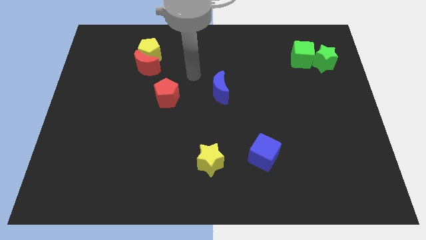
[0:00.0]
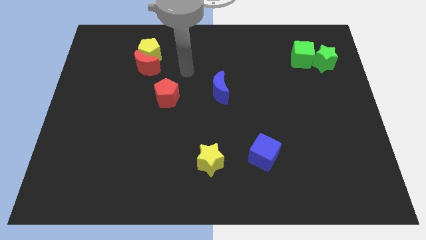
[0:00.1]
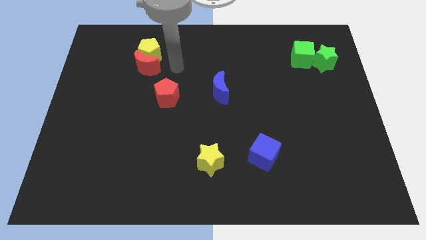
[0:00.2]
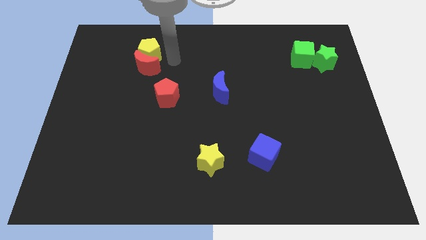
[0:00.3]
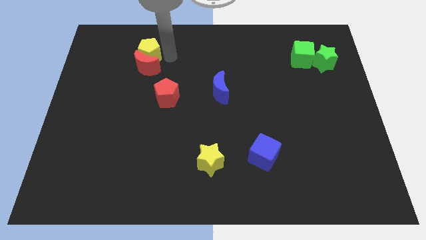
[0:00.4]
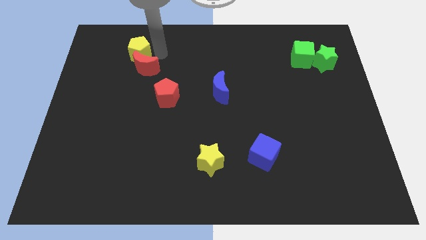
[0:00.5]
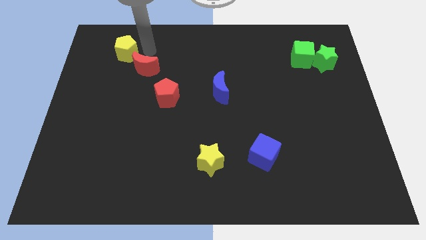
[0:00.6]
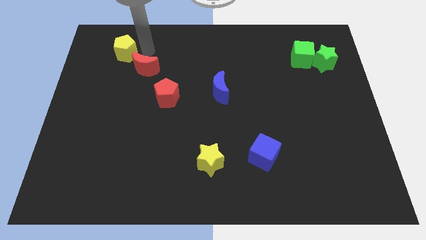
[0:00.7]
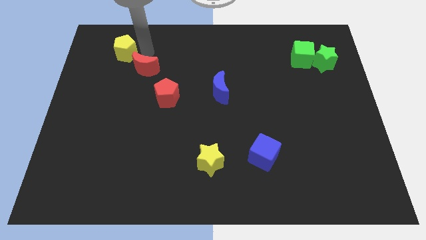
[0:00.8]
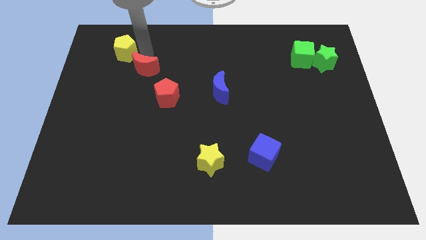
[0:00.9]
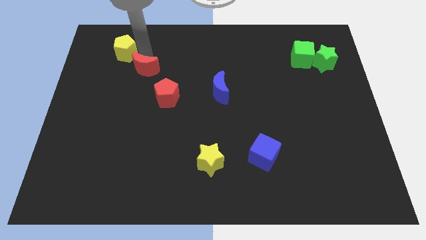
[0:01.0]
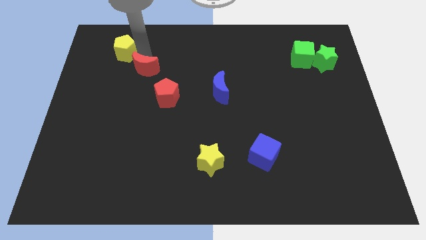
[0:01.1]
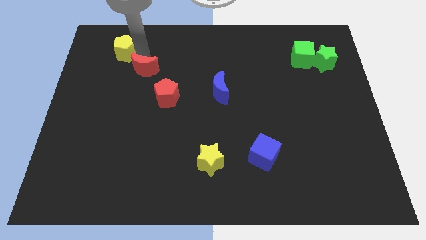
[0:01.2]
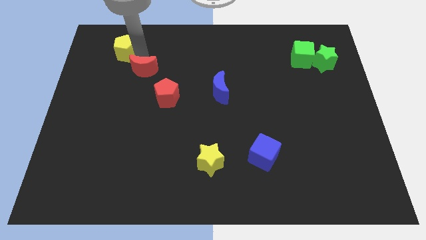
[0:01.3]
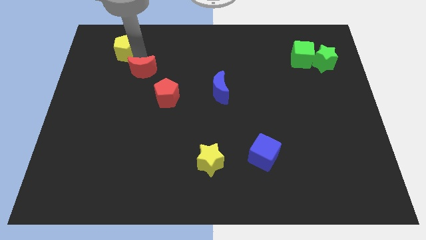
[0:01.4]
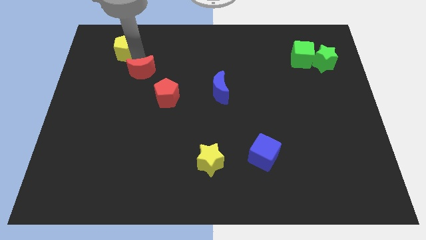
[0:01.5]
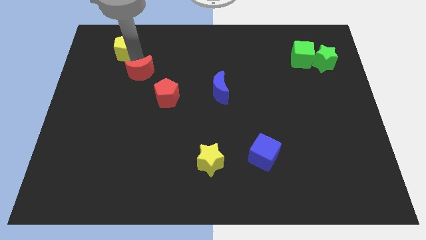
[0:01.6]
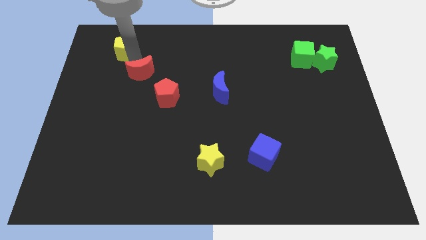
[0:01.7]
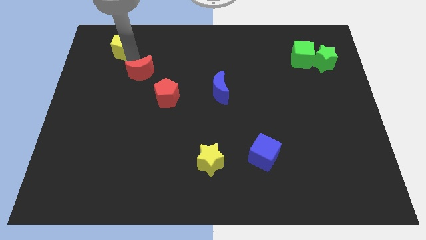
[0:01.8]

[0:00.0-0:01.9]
pull the red moon apart from the yellow pentagon

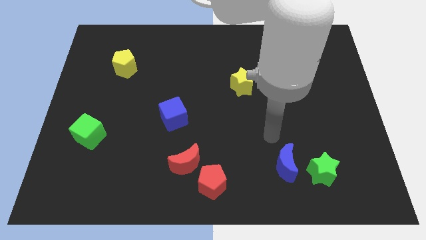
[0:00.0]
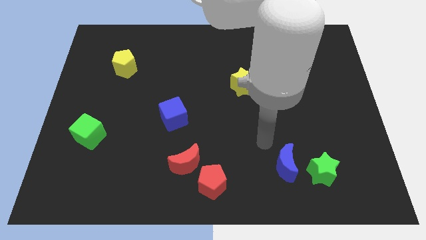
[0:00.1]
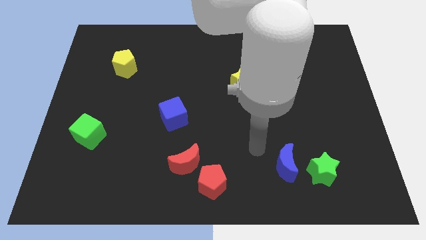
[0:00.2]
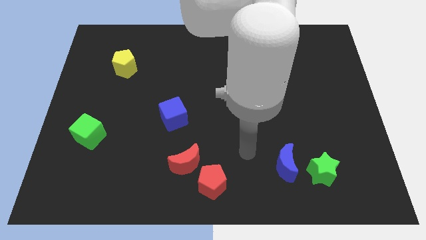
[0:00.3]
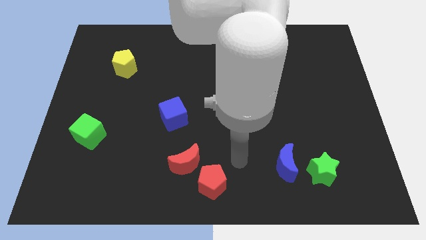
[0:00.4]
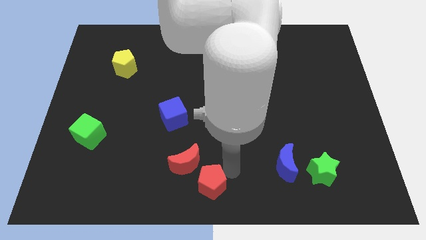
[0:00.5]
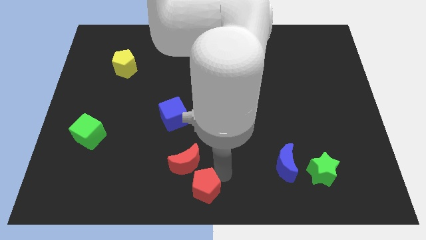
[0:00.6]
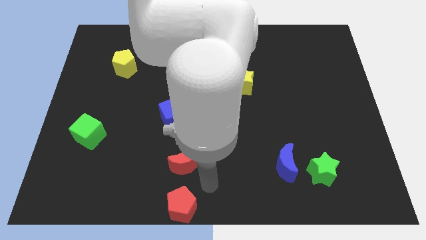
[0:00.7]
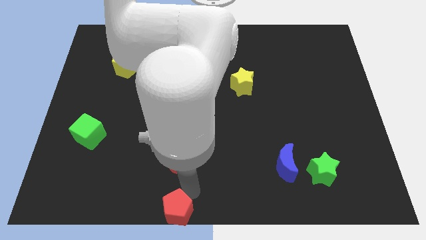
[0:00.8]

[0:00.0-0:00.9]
separate the red moon from the red pentagon

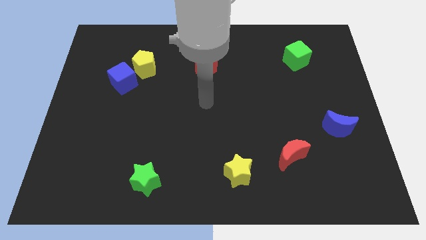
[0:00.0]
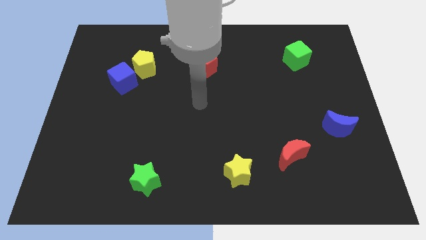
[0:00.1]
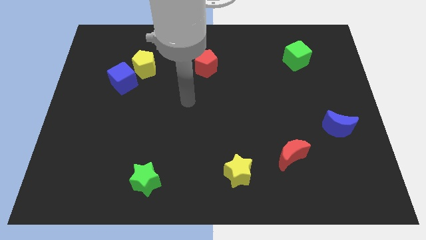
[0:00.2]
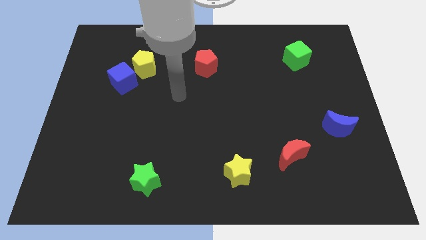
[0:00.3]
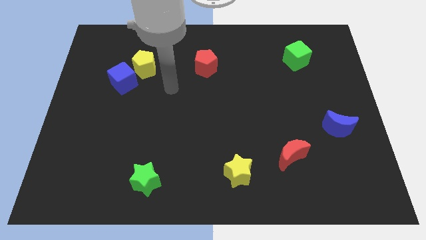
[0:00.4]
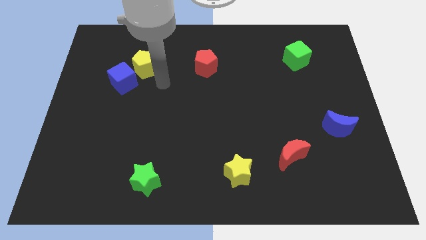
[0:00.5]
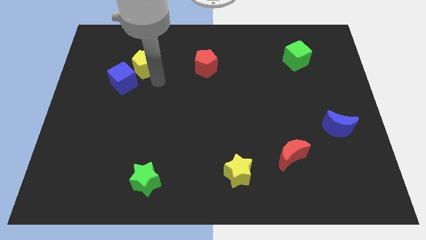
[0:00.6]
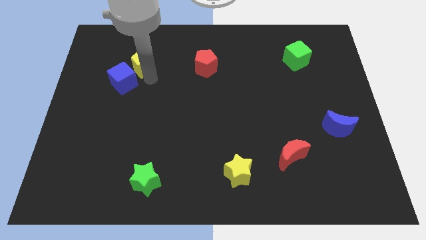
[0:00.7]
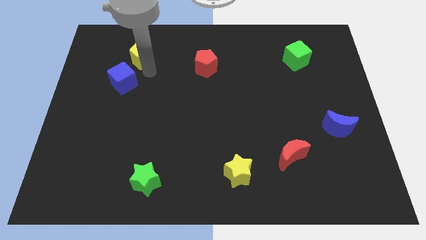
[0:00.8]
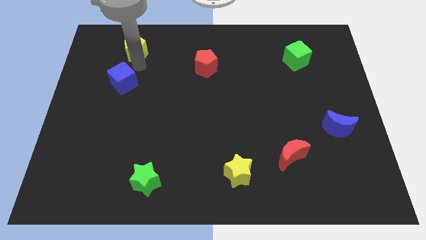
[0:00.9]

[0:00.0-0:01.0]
move the blue cube away from the yellow pentagon

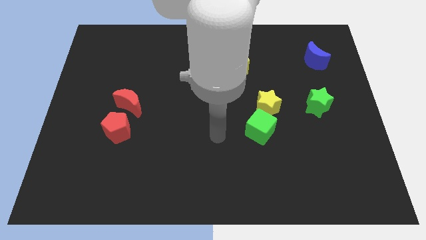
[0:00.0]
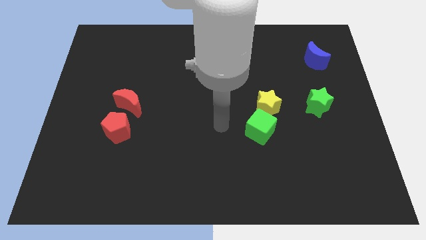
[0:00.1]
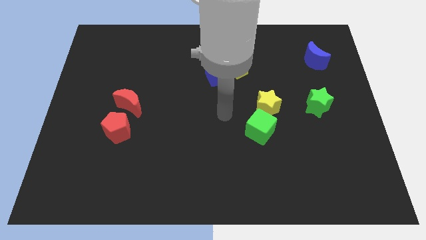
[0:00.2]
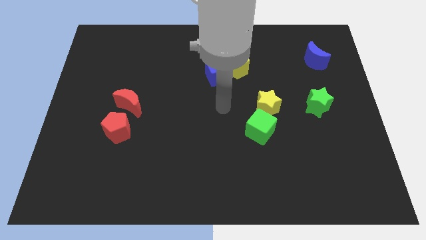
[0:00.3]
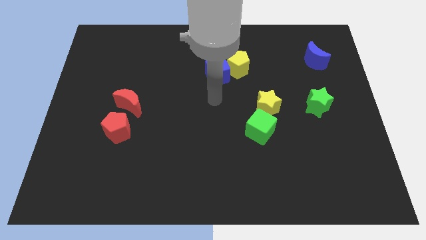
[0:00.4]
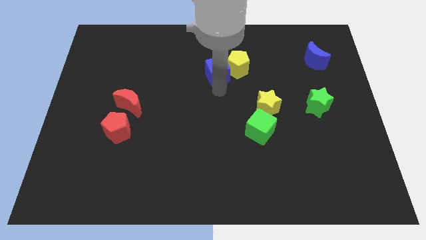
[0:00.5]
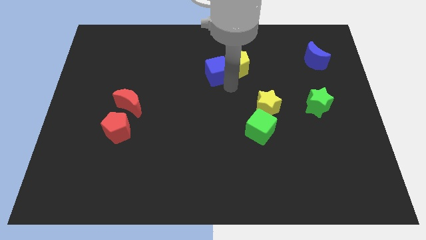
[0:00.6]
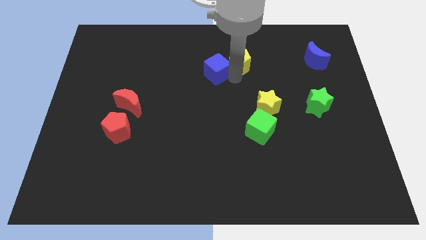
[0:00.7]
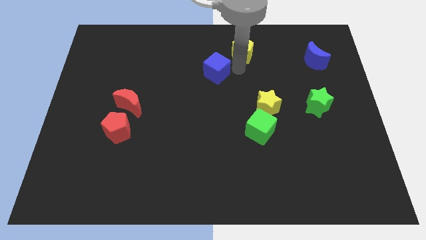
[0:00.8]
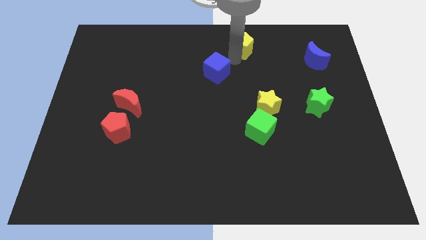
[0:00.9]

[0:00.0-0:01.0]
pull the blue cube apart from the yellow pentagon

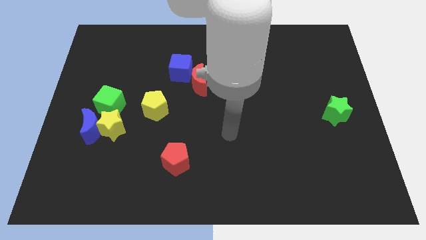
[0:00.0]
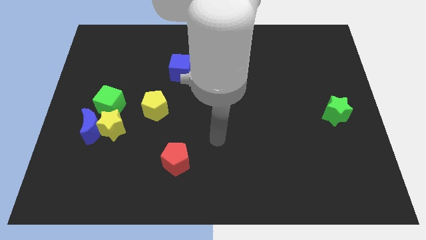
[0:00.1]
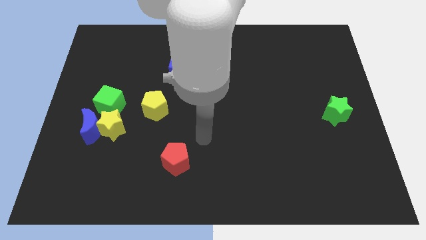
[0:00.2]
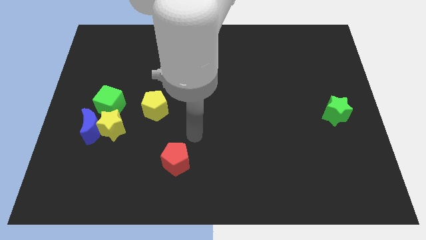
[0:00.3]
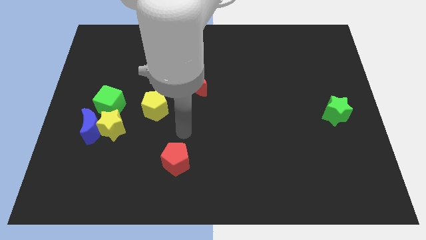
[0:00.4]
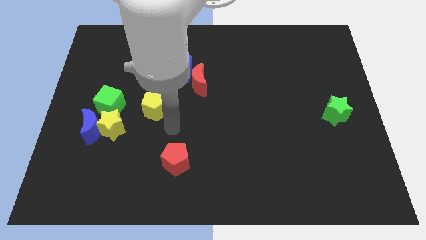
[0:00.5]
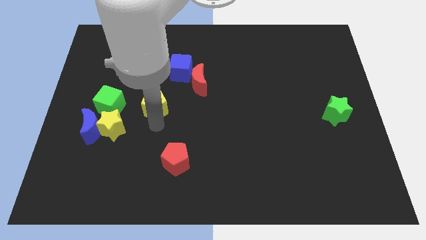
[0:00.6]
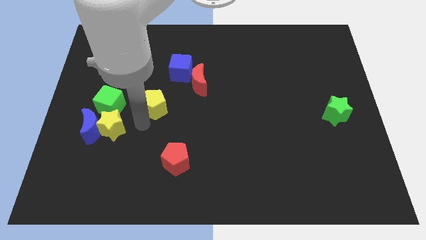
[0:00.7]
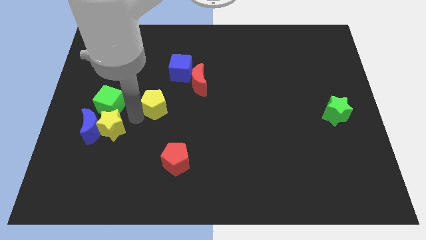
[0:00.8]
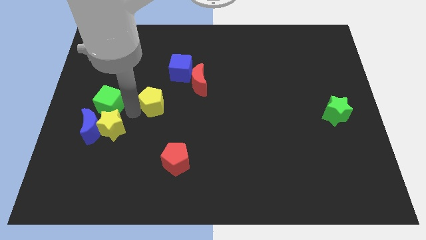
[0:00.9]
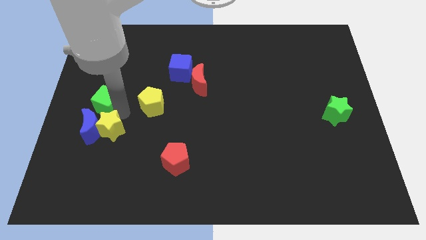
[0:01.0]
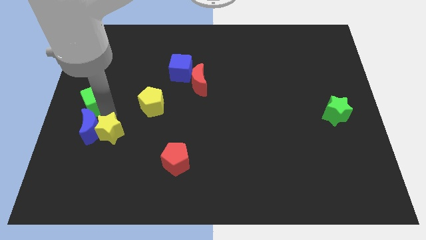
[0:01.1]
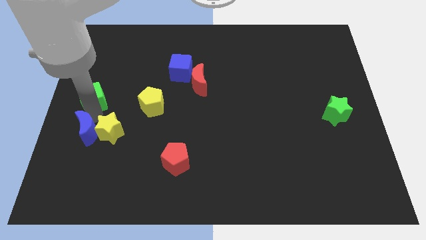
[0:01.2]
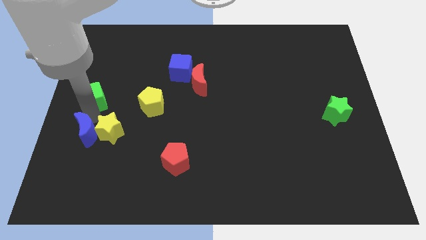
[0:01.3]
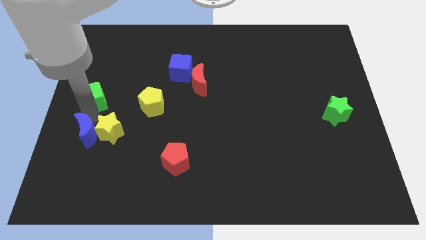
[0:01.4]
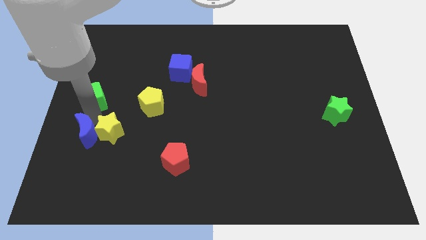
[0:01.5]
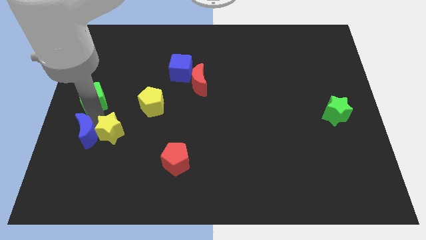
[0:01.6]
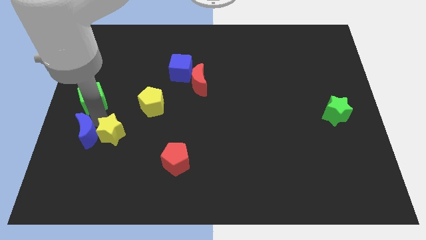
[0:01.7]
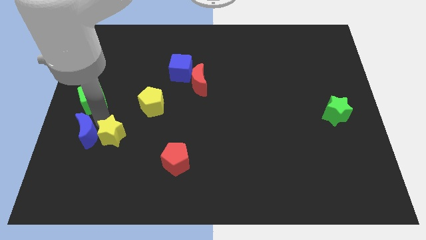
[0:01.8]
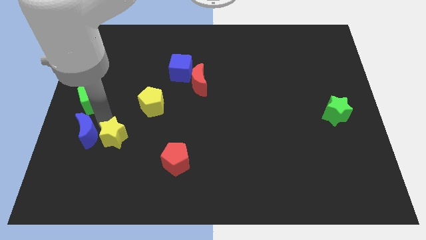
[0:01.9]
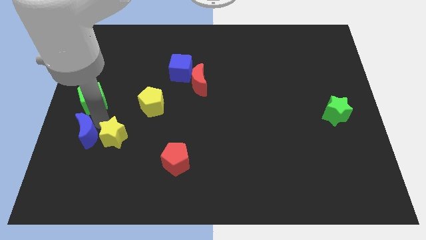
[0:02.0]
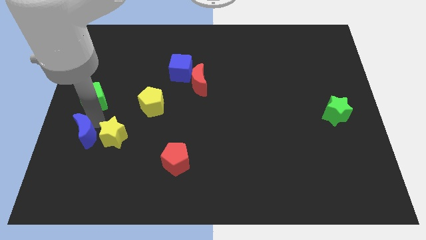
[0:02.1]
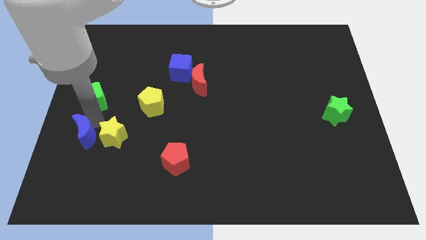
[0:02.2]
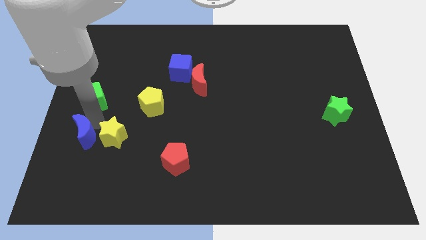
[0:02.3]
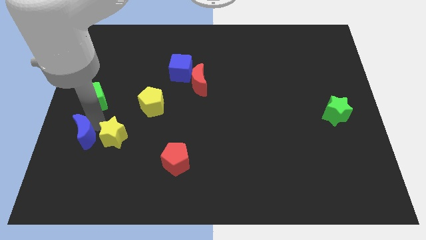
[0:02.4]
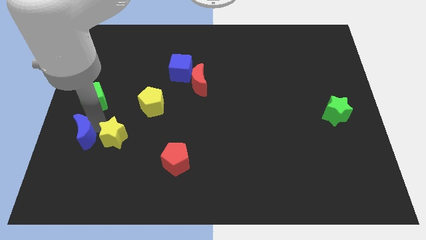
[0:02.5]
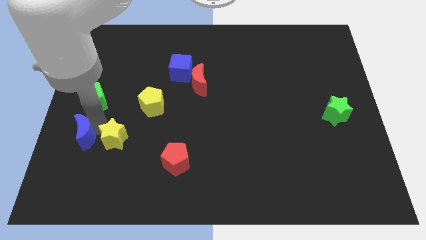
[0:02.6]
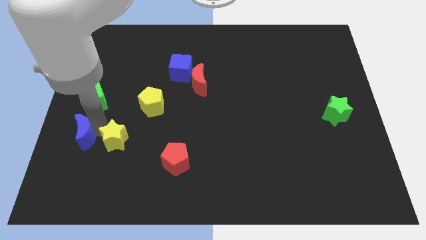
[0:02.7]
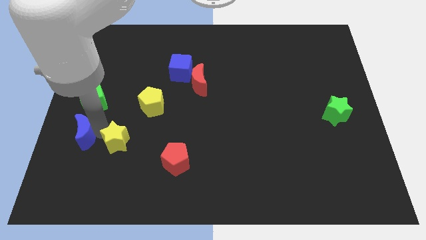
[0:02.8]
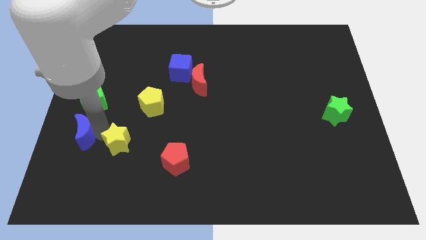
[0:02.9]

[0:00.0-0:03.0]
pull the yellow star apart from the blue moon and green cube

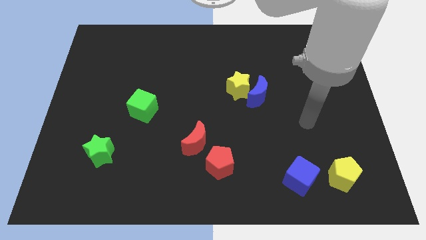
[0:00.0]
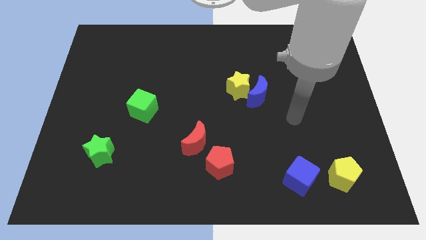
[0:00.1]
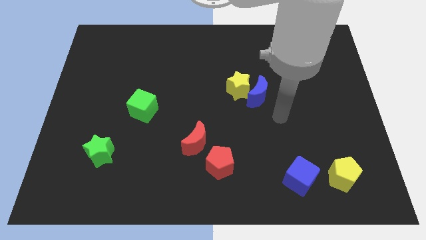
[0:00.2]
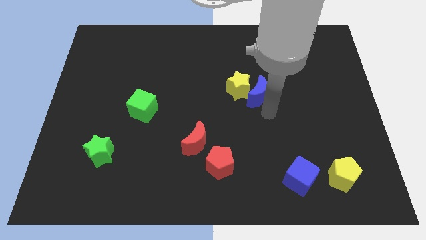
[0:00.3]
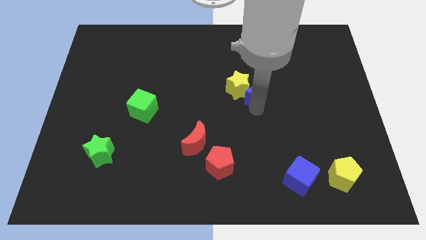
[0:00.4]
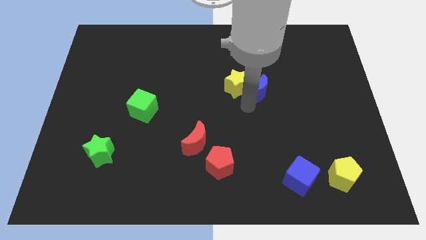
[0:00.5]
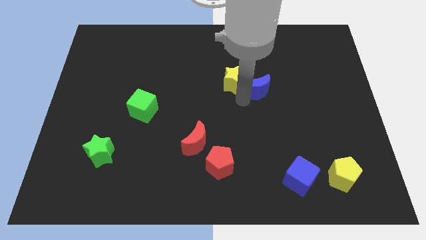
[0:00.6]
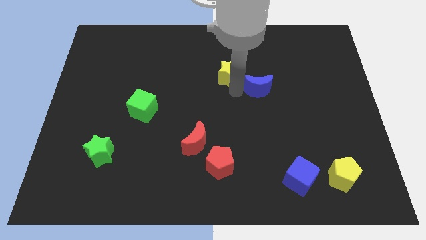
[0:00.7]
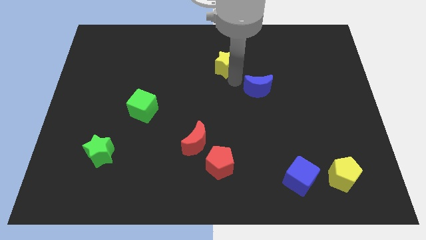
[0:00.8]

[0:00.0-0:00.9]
pull the blue moon apart from the yellow star

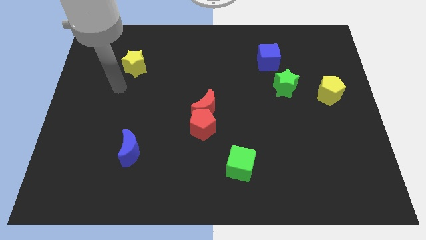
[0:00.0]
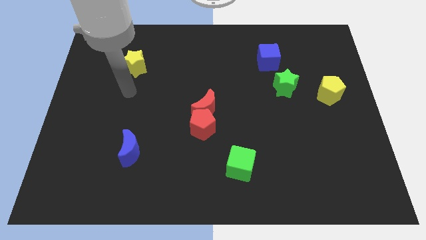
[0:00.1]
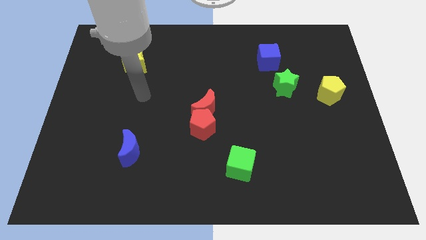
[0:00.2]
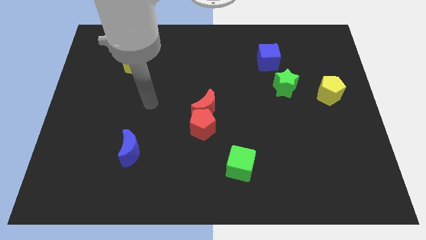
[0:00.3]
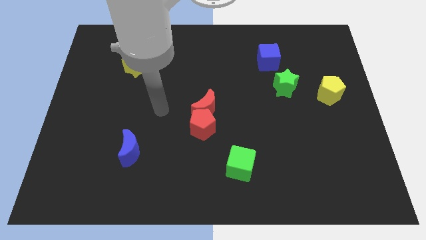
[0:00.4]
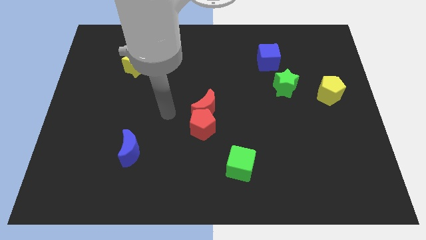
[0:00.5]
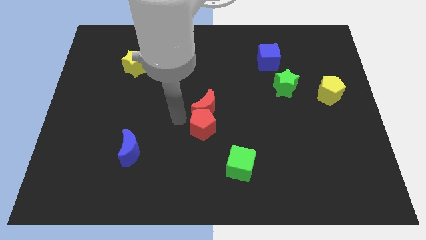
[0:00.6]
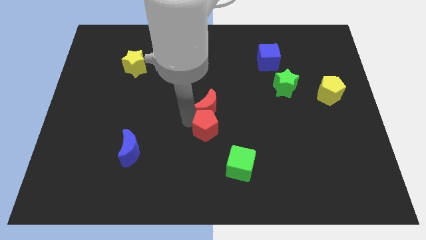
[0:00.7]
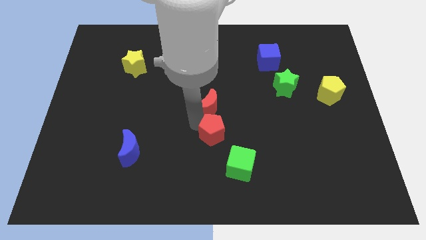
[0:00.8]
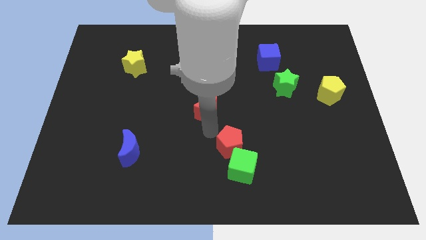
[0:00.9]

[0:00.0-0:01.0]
pull the red moon apart from the red pentagon
